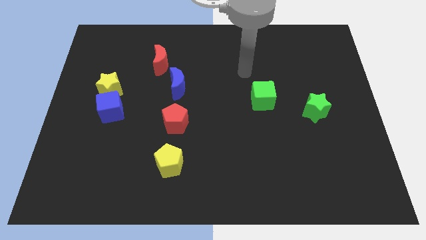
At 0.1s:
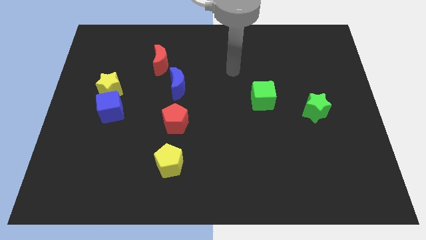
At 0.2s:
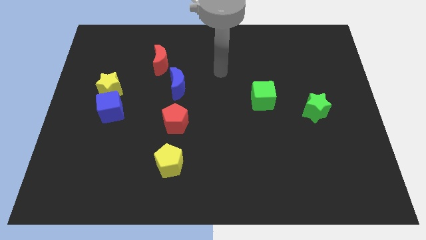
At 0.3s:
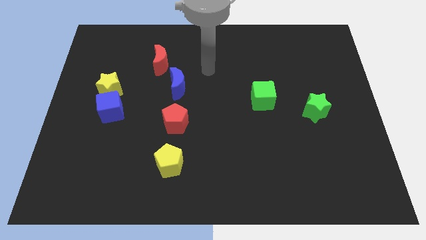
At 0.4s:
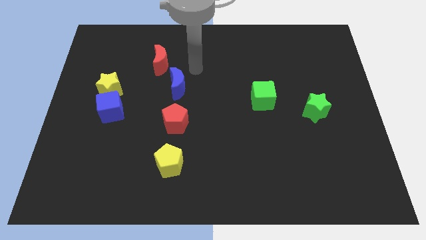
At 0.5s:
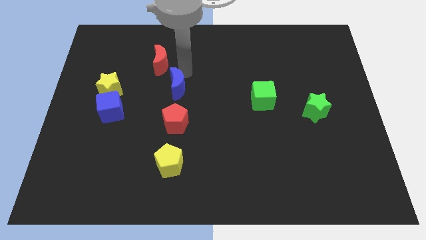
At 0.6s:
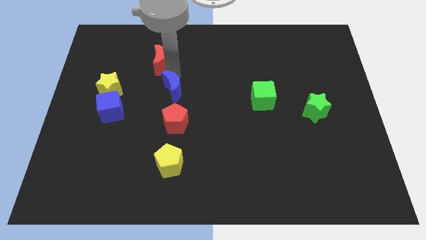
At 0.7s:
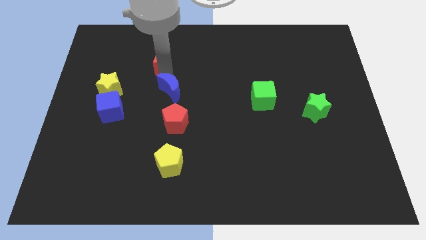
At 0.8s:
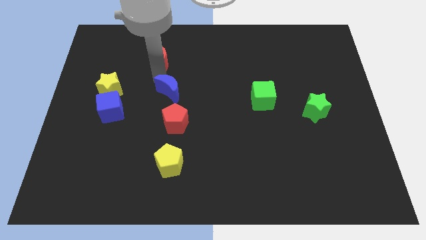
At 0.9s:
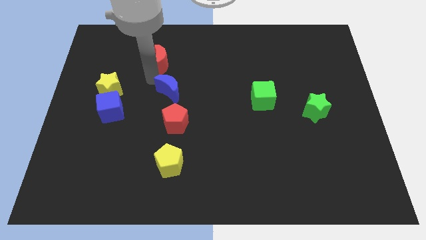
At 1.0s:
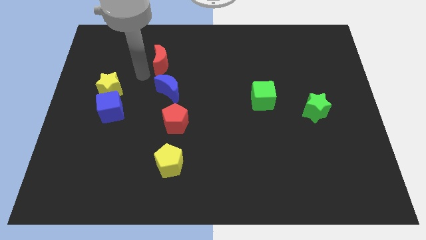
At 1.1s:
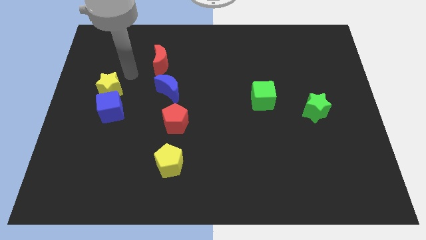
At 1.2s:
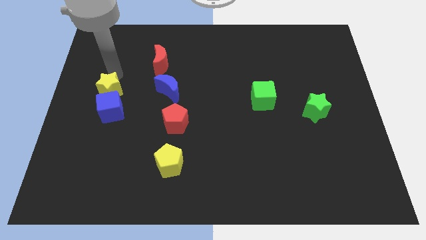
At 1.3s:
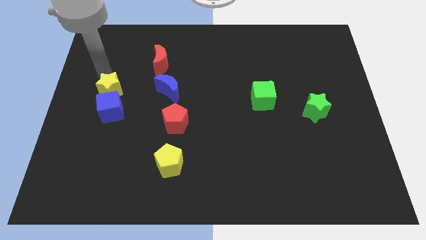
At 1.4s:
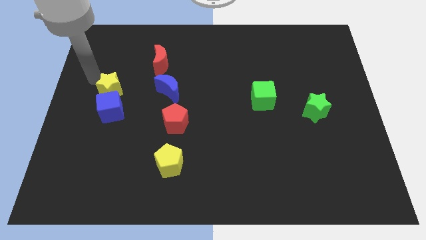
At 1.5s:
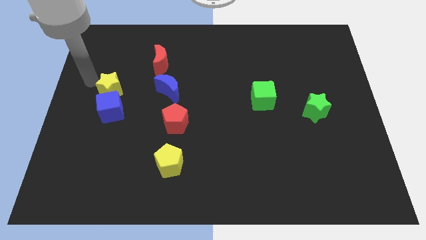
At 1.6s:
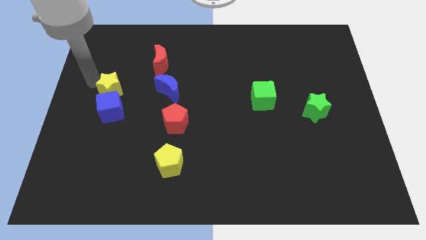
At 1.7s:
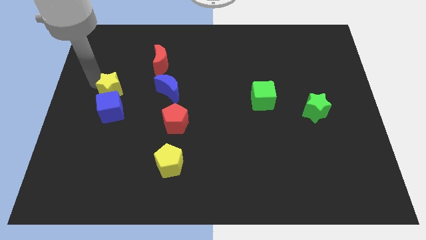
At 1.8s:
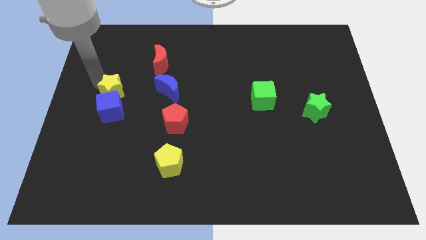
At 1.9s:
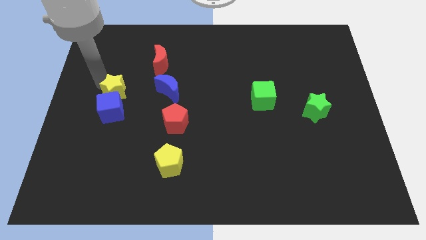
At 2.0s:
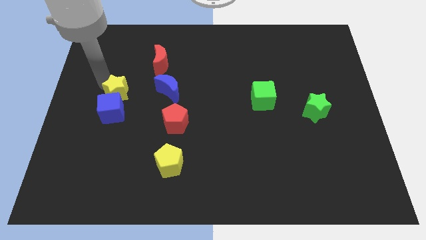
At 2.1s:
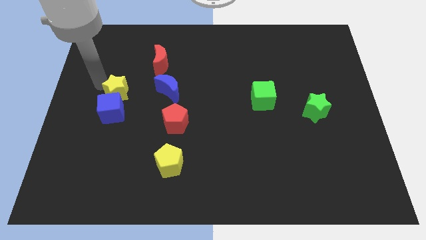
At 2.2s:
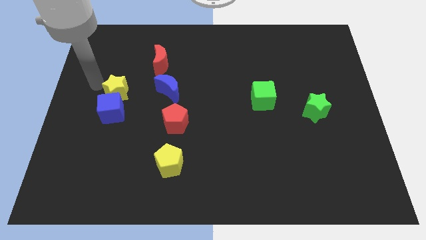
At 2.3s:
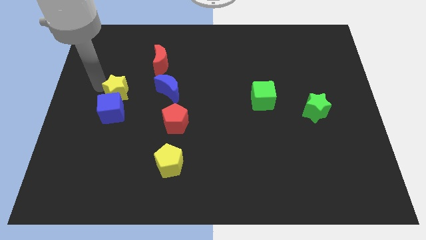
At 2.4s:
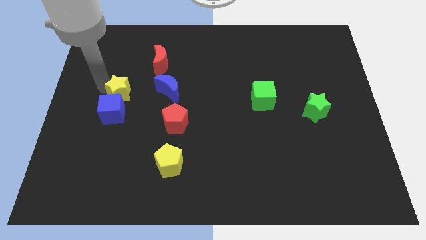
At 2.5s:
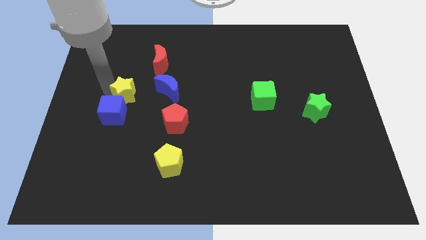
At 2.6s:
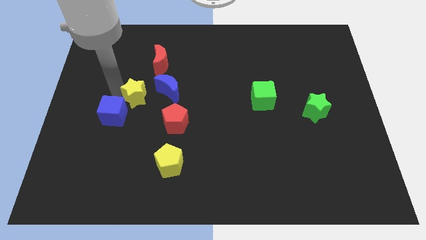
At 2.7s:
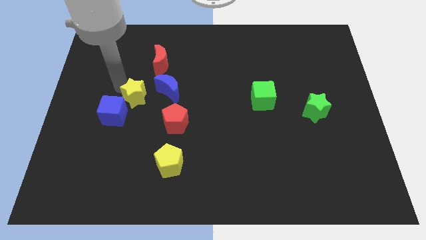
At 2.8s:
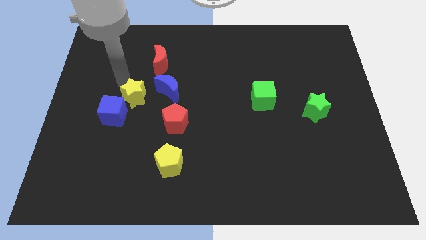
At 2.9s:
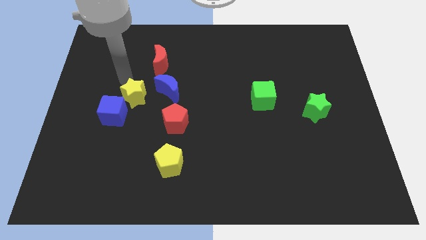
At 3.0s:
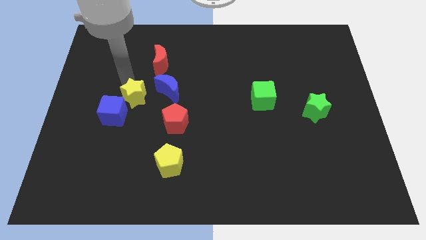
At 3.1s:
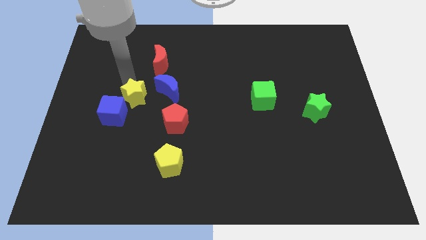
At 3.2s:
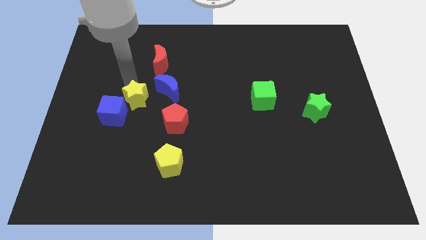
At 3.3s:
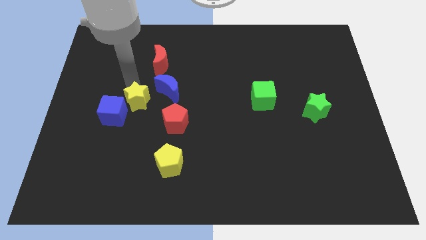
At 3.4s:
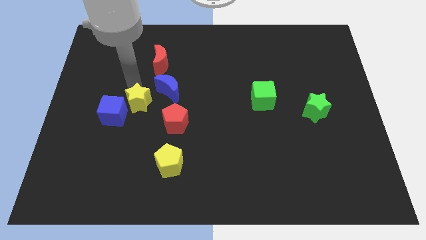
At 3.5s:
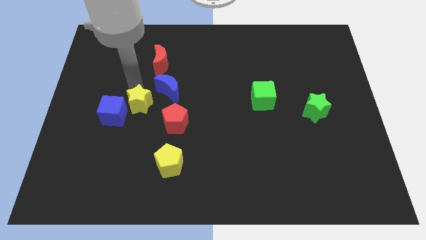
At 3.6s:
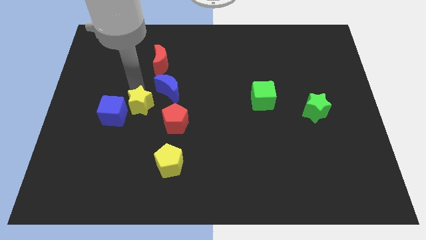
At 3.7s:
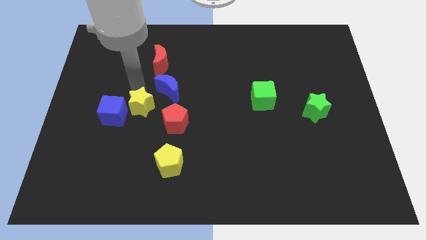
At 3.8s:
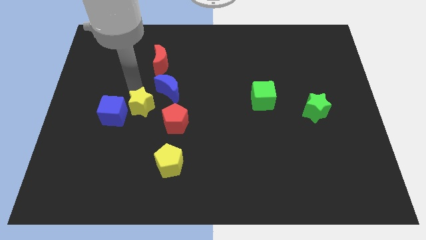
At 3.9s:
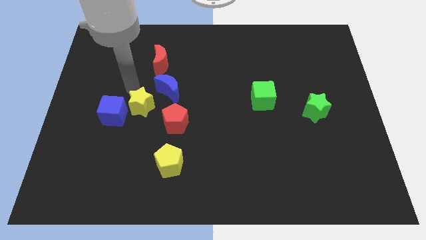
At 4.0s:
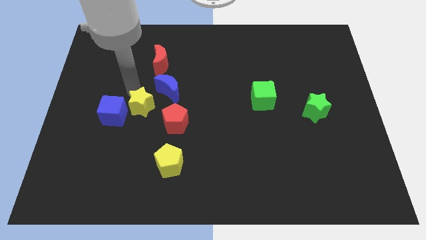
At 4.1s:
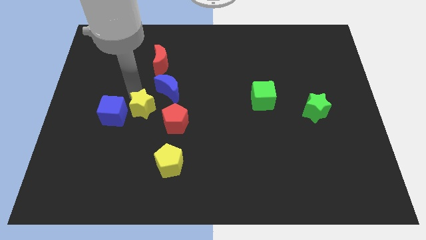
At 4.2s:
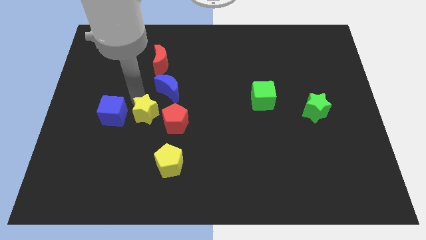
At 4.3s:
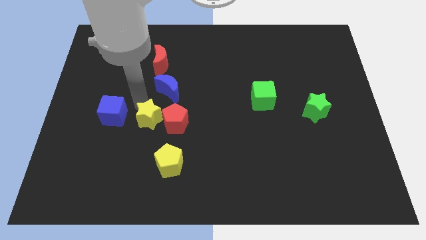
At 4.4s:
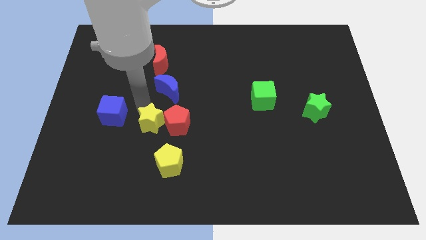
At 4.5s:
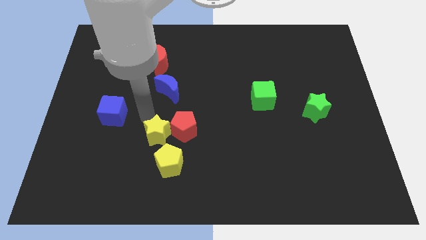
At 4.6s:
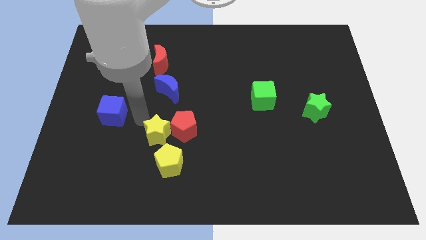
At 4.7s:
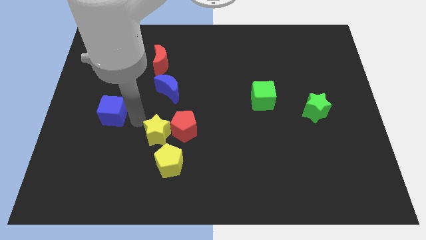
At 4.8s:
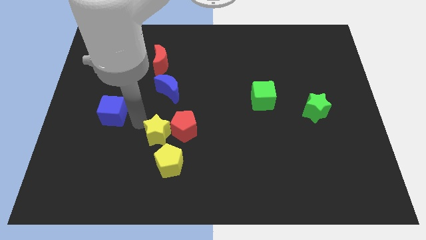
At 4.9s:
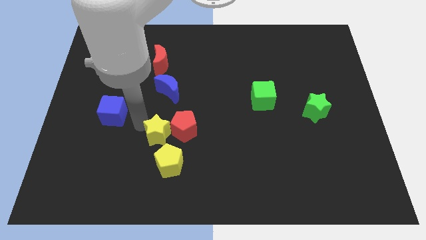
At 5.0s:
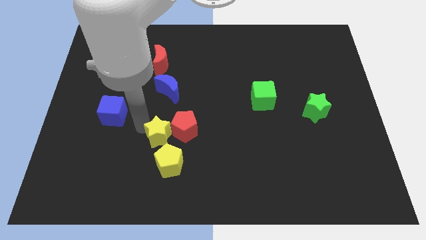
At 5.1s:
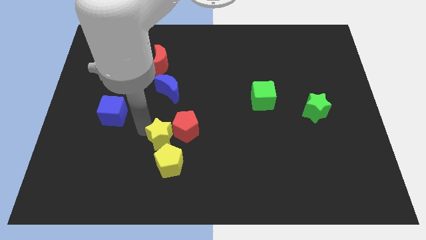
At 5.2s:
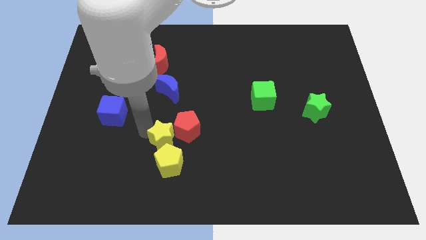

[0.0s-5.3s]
push the yellow star downwards and right diagonally

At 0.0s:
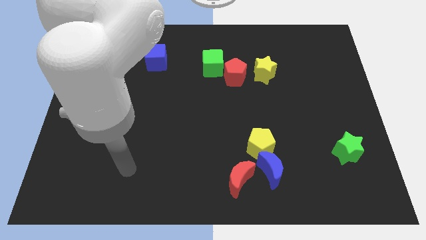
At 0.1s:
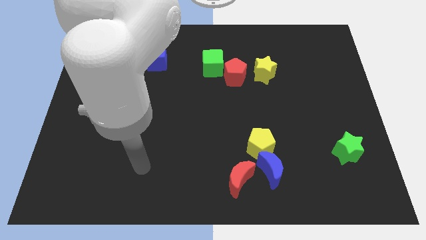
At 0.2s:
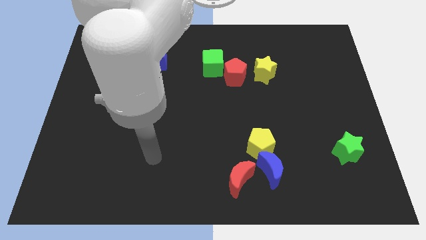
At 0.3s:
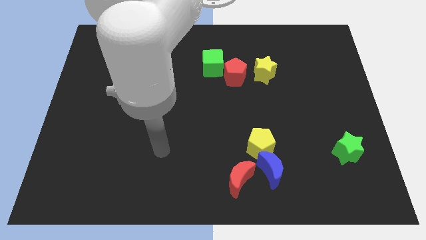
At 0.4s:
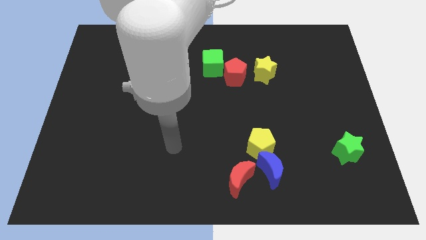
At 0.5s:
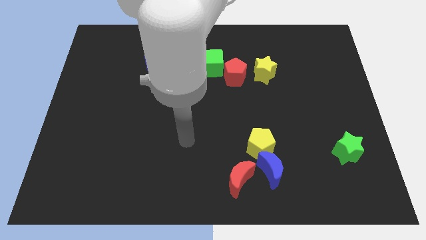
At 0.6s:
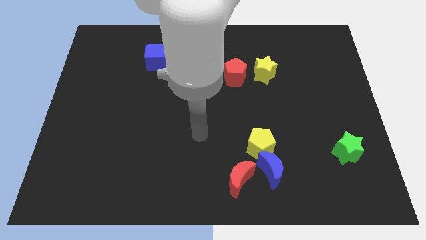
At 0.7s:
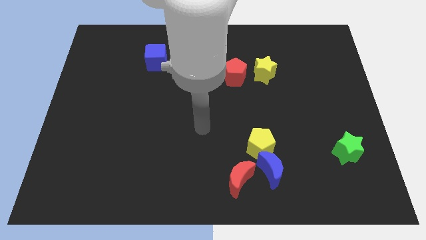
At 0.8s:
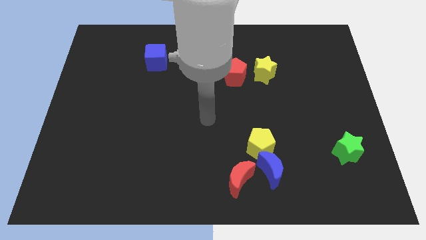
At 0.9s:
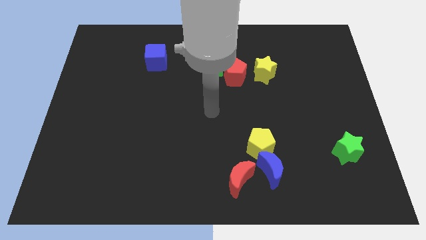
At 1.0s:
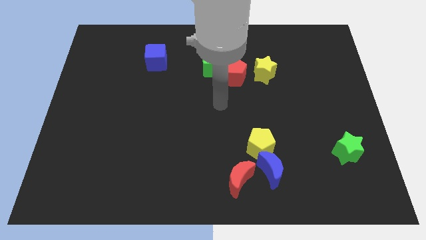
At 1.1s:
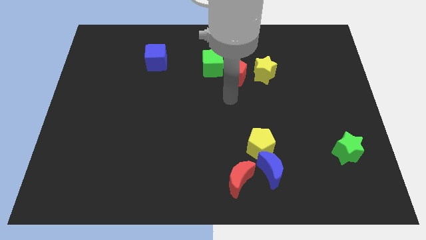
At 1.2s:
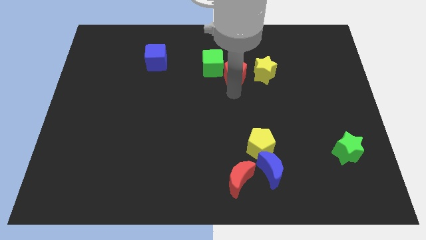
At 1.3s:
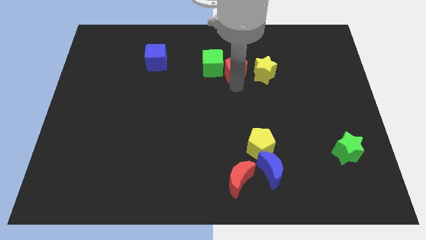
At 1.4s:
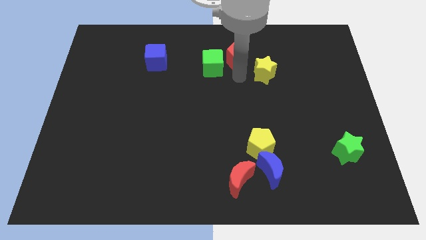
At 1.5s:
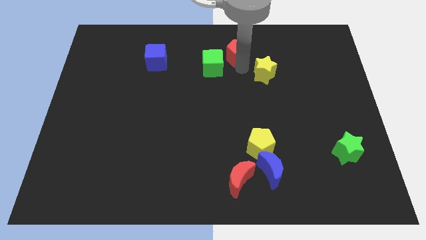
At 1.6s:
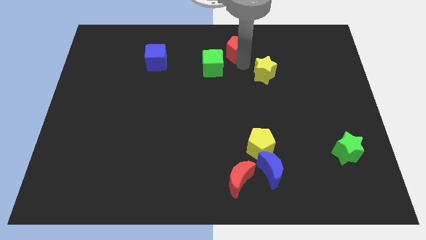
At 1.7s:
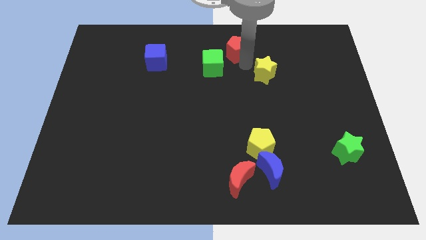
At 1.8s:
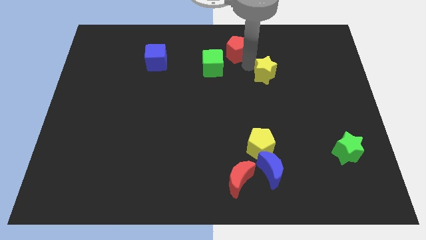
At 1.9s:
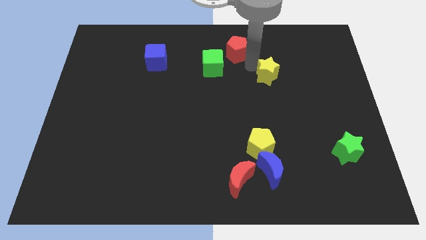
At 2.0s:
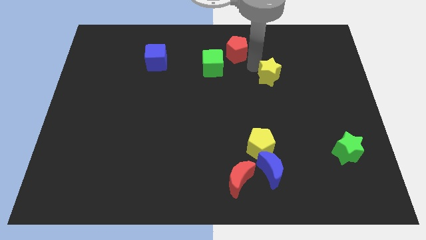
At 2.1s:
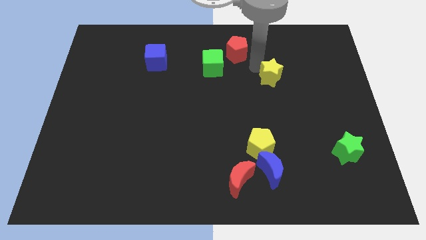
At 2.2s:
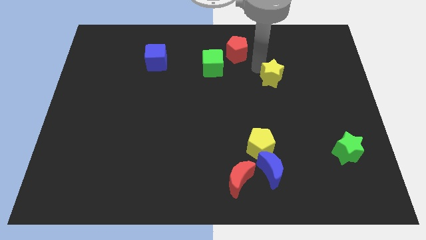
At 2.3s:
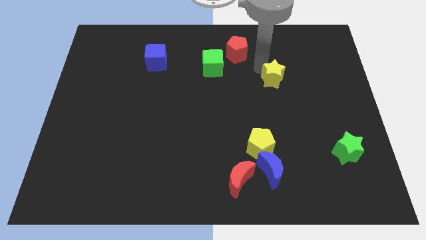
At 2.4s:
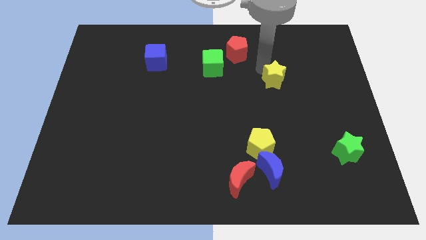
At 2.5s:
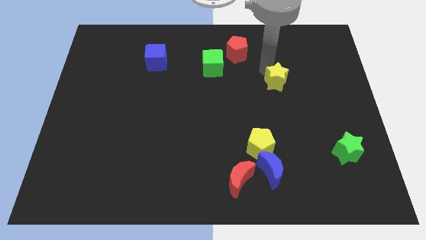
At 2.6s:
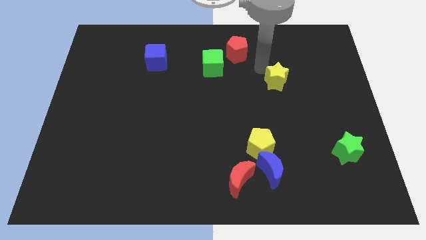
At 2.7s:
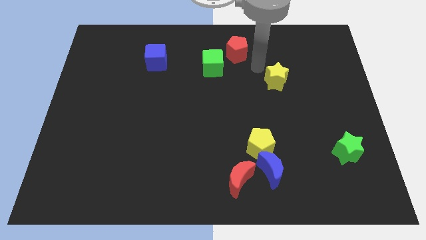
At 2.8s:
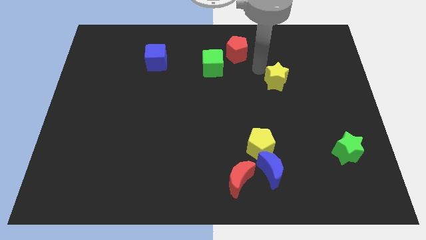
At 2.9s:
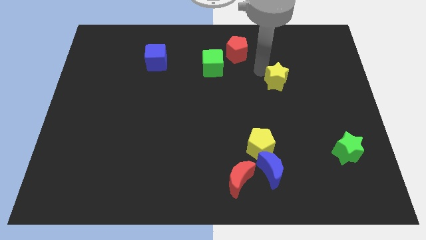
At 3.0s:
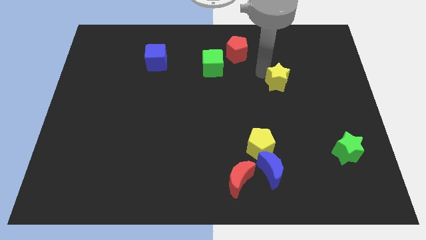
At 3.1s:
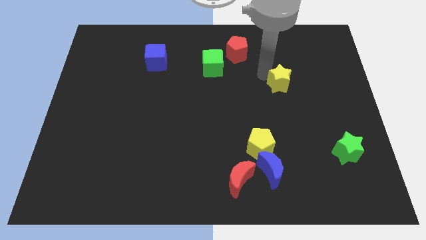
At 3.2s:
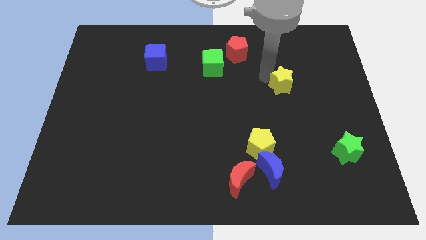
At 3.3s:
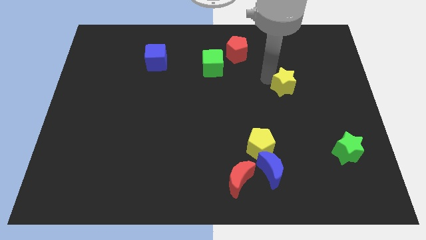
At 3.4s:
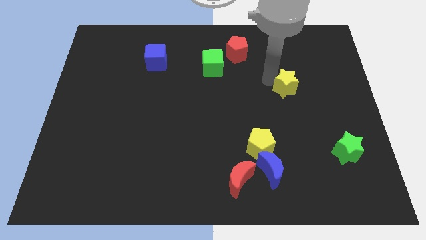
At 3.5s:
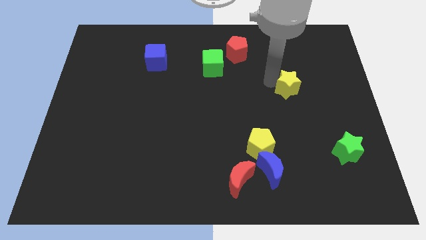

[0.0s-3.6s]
slightly push the yellow star diagonally down and to the right
